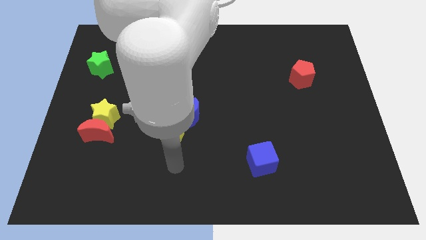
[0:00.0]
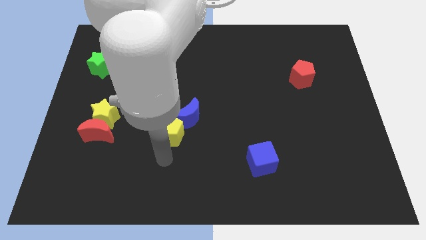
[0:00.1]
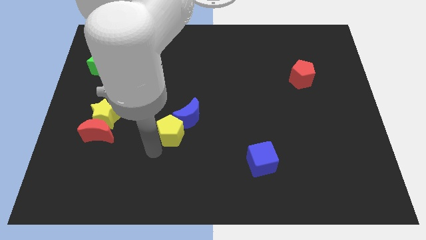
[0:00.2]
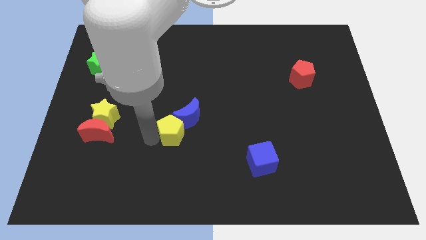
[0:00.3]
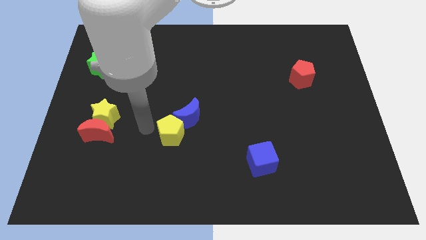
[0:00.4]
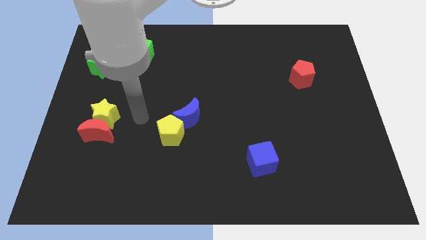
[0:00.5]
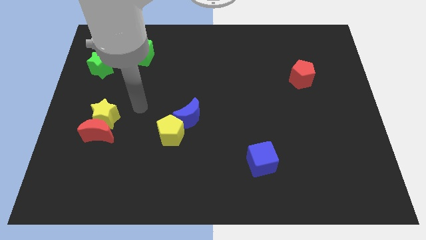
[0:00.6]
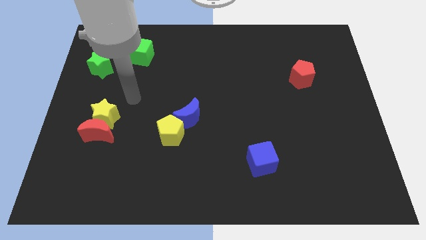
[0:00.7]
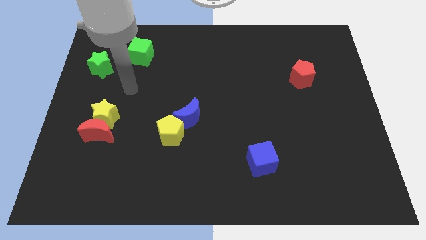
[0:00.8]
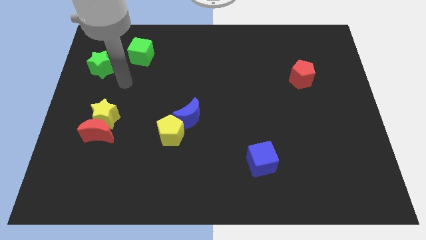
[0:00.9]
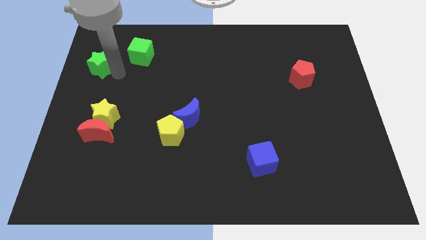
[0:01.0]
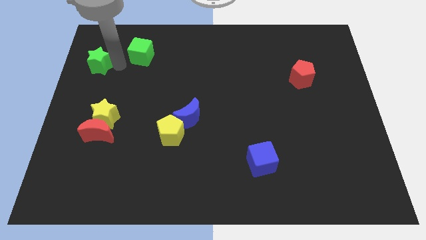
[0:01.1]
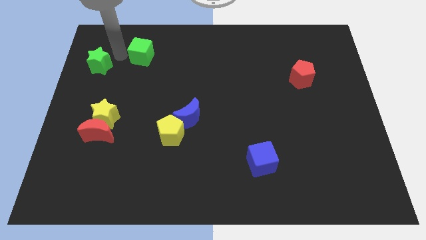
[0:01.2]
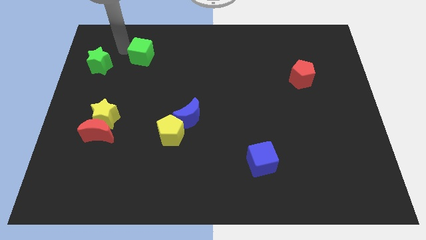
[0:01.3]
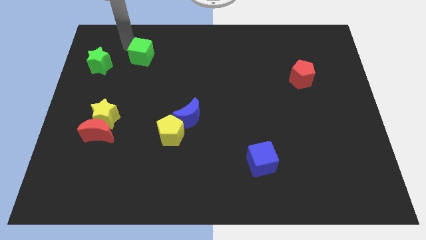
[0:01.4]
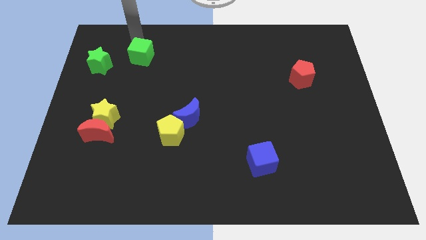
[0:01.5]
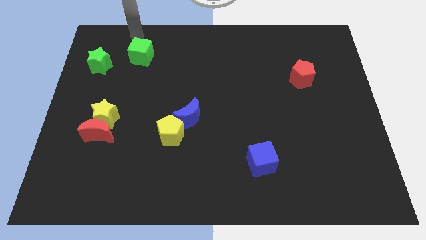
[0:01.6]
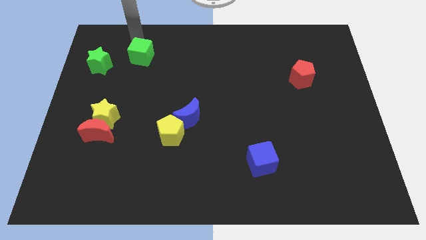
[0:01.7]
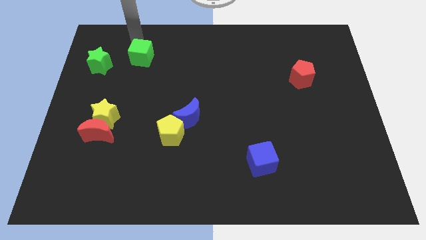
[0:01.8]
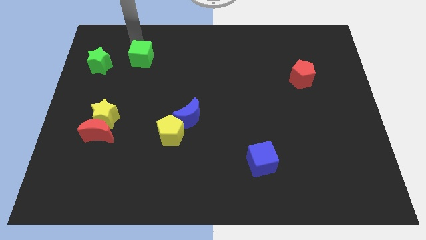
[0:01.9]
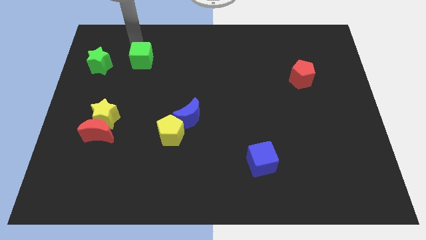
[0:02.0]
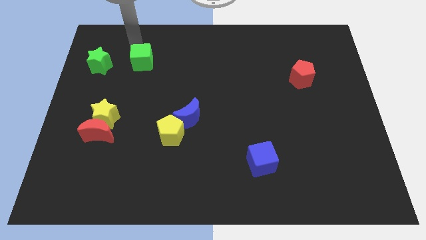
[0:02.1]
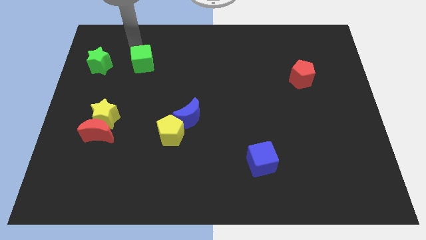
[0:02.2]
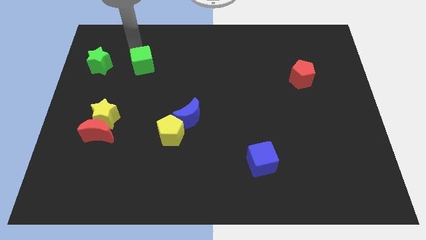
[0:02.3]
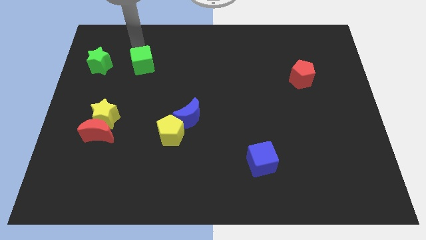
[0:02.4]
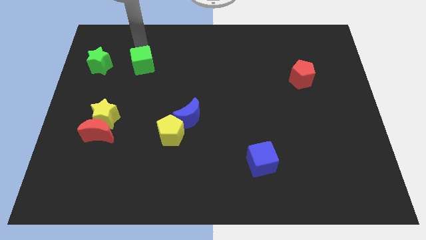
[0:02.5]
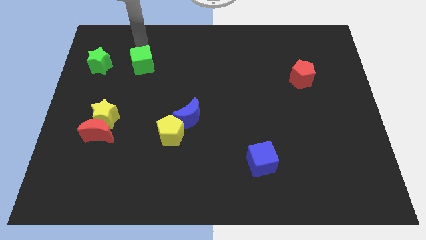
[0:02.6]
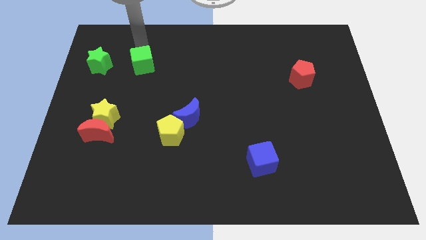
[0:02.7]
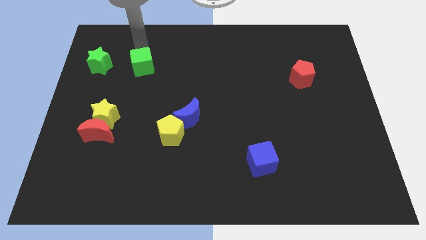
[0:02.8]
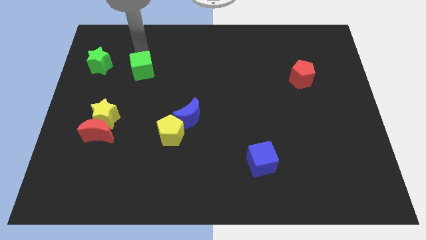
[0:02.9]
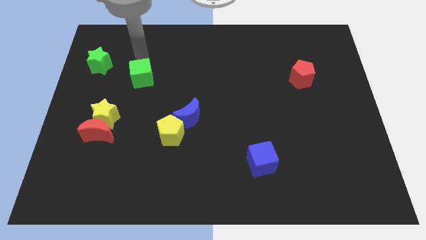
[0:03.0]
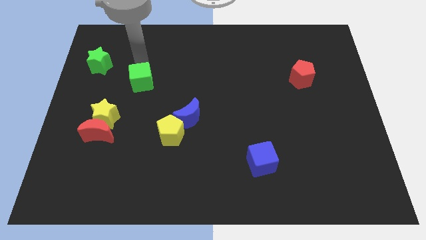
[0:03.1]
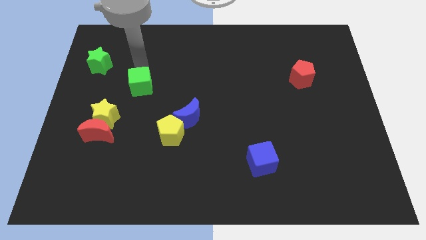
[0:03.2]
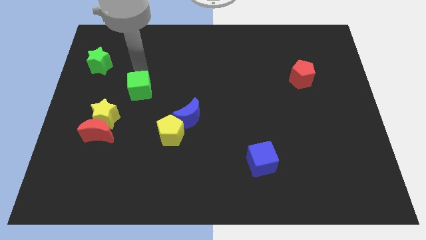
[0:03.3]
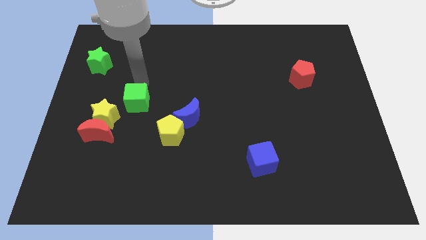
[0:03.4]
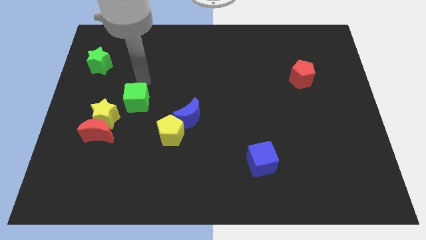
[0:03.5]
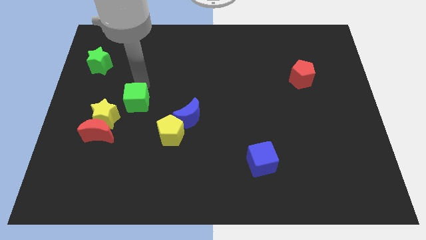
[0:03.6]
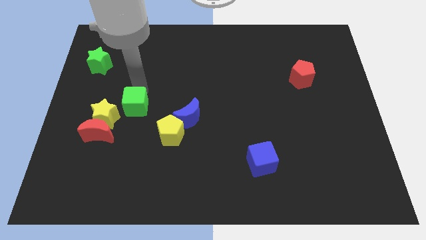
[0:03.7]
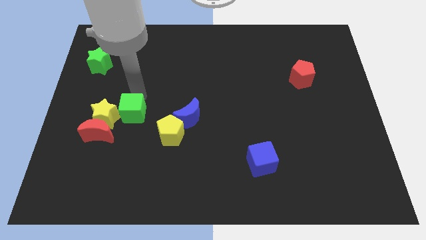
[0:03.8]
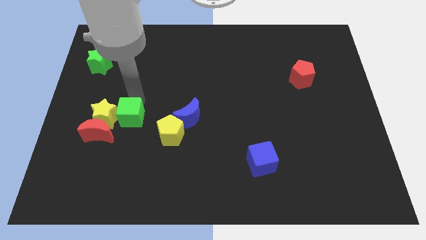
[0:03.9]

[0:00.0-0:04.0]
move the green cube down

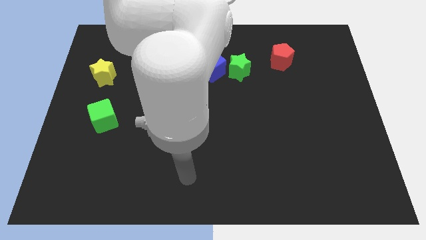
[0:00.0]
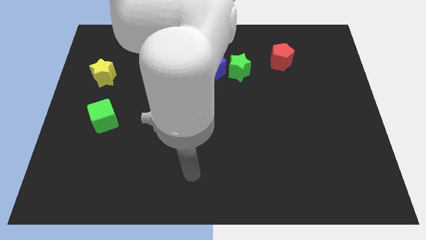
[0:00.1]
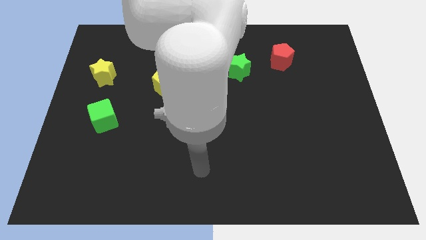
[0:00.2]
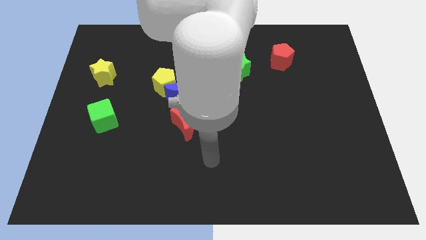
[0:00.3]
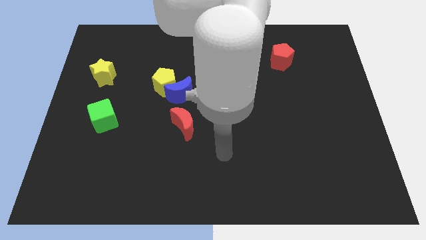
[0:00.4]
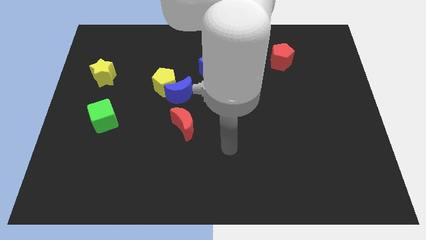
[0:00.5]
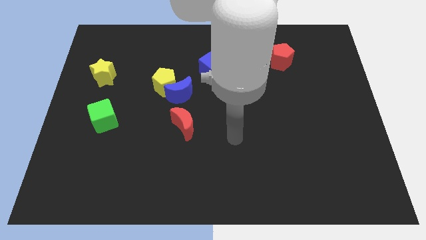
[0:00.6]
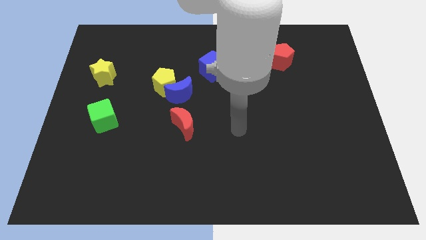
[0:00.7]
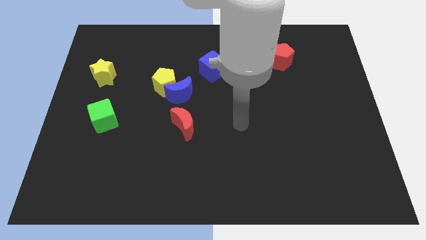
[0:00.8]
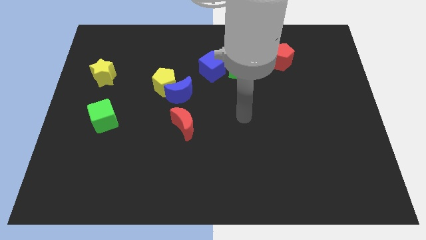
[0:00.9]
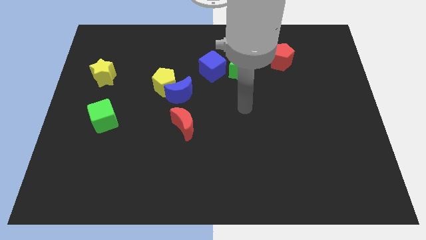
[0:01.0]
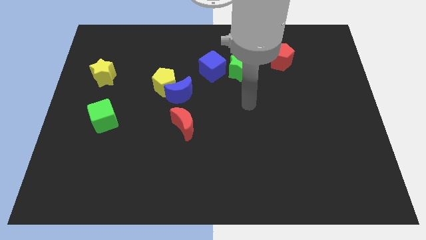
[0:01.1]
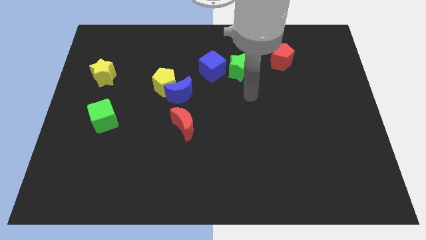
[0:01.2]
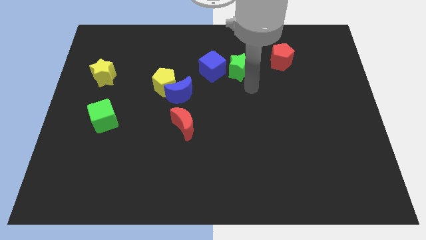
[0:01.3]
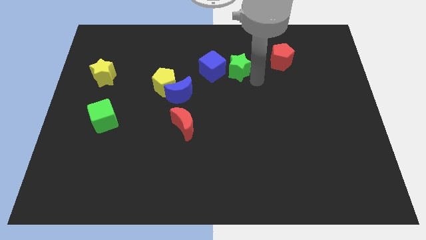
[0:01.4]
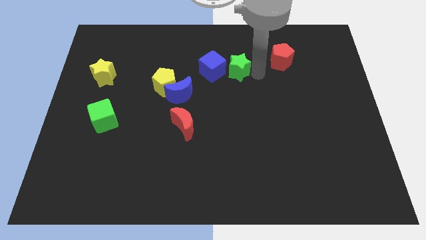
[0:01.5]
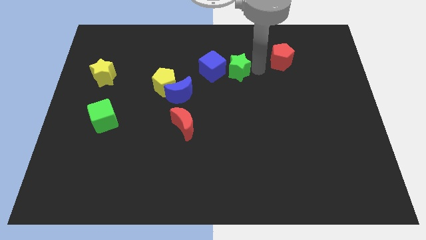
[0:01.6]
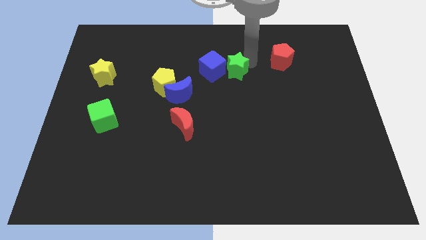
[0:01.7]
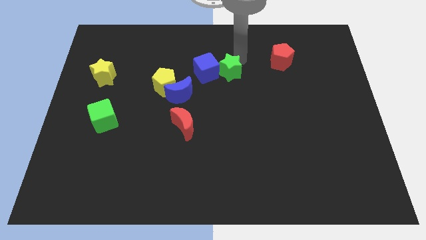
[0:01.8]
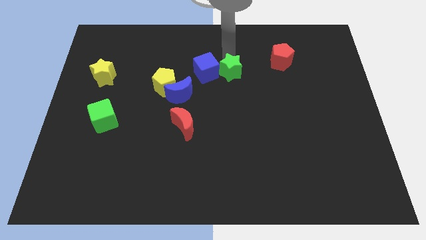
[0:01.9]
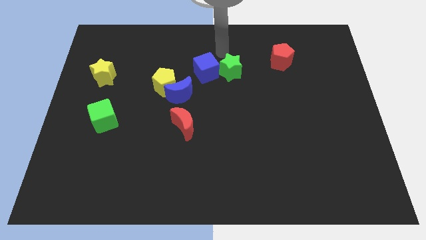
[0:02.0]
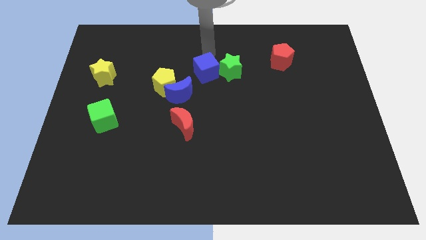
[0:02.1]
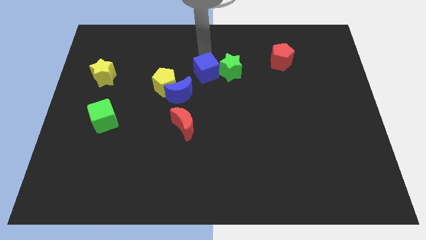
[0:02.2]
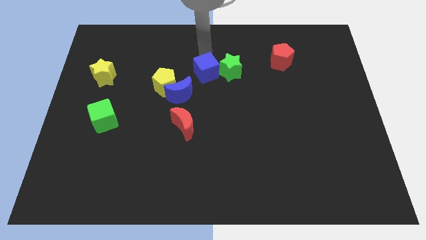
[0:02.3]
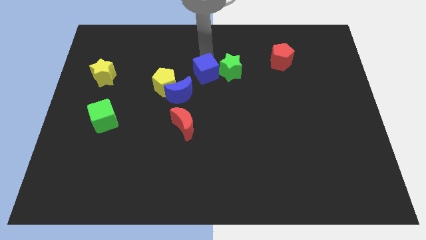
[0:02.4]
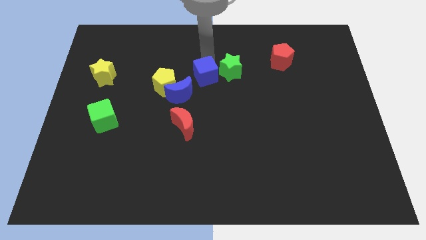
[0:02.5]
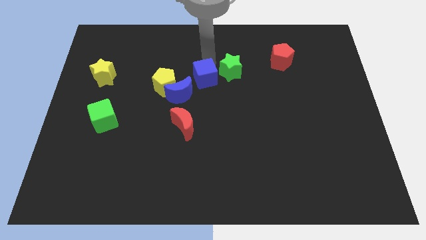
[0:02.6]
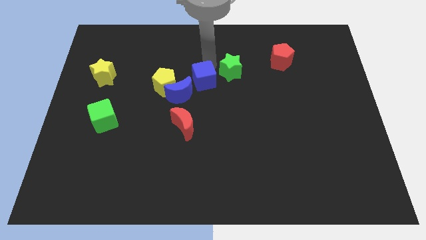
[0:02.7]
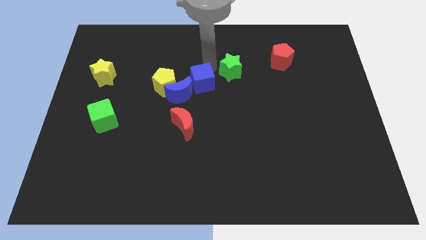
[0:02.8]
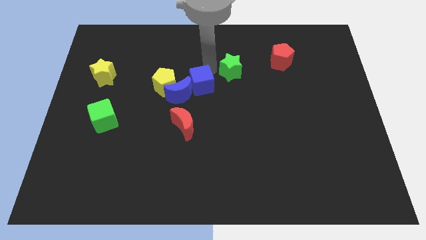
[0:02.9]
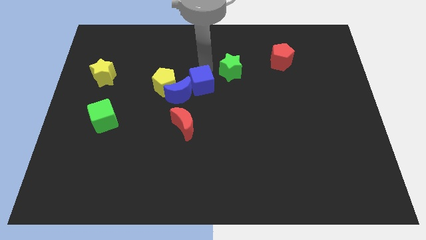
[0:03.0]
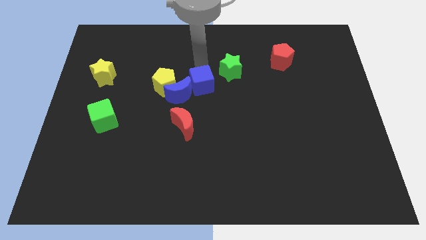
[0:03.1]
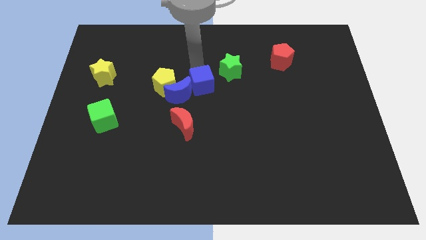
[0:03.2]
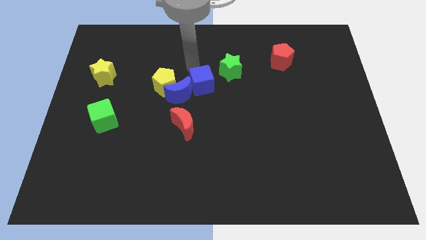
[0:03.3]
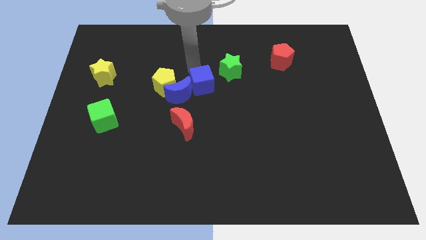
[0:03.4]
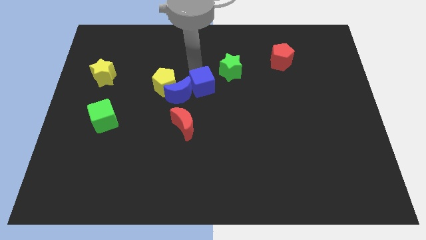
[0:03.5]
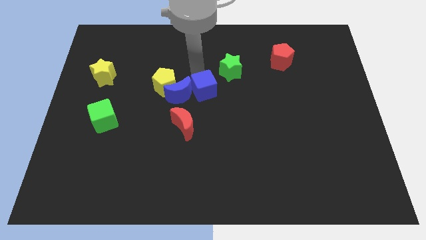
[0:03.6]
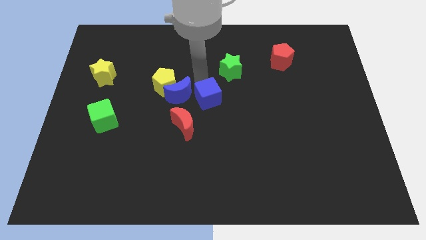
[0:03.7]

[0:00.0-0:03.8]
push the blue cube a little downwards

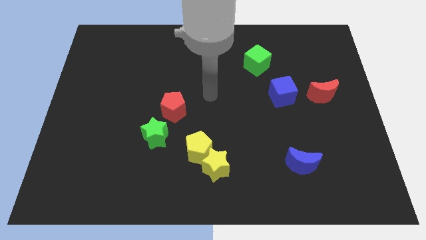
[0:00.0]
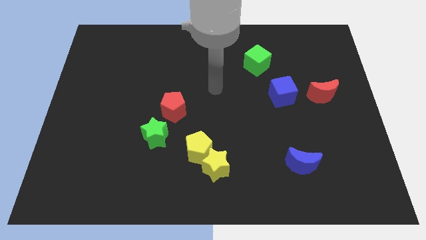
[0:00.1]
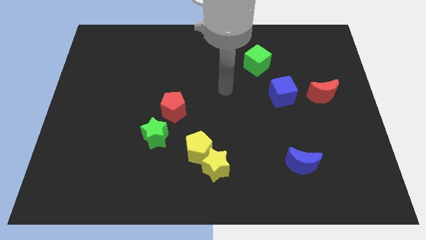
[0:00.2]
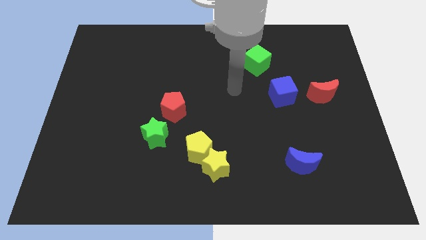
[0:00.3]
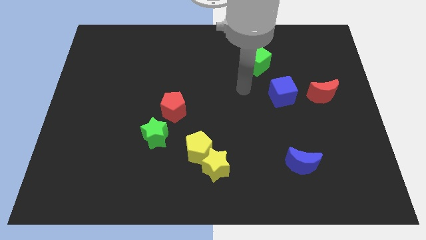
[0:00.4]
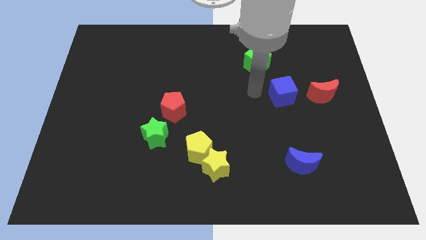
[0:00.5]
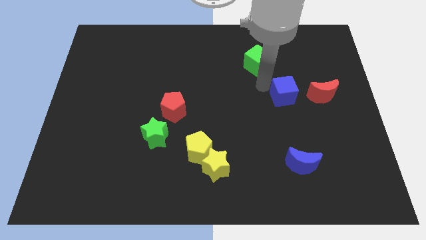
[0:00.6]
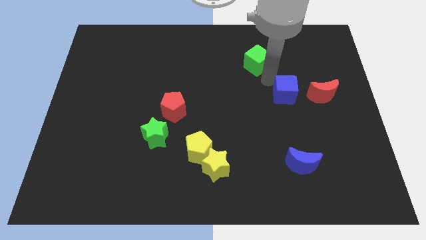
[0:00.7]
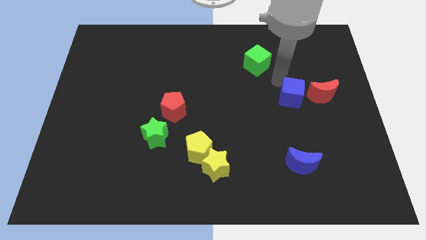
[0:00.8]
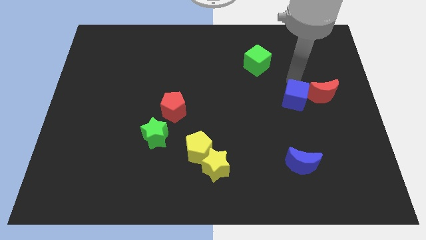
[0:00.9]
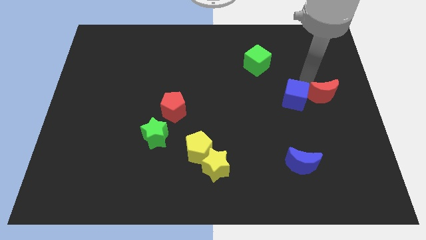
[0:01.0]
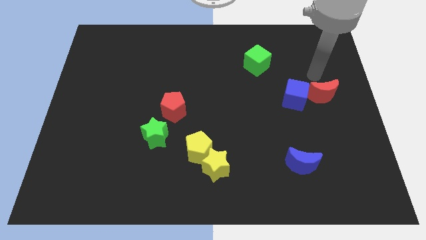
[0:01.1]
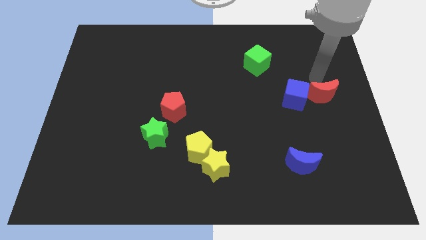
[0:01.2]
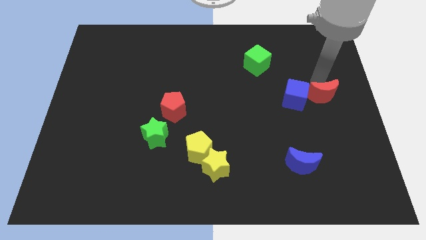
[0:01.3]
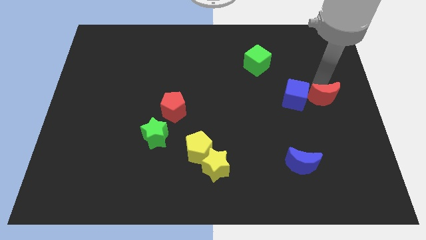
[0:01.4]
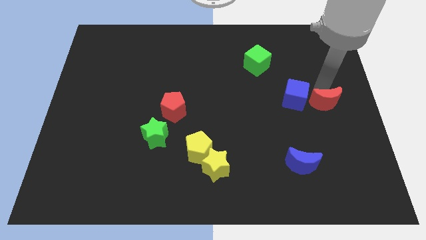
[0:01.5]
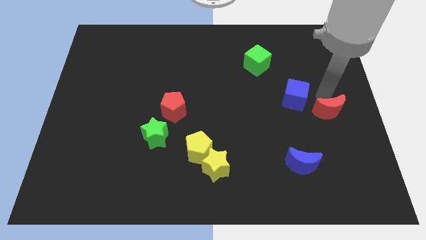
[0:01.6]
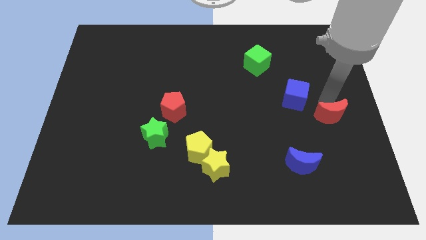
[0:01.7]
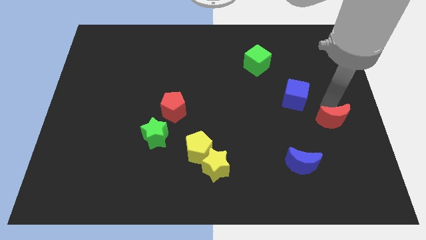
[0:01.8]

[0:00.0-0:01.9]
slide the red moon a little downwards
